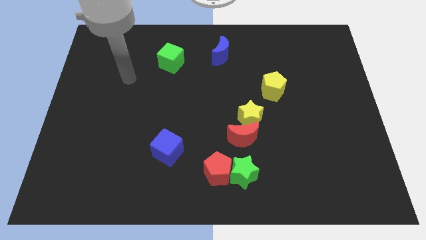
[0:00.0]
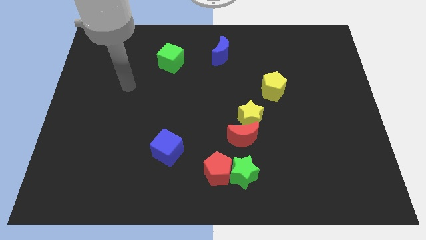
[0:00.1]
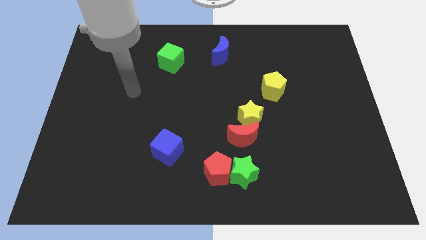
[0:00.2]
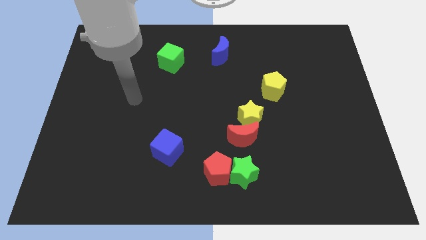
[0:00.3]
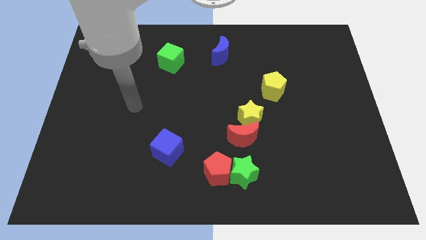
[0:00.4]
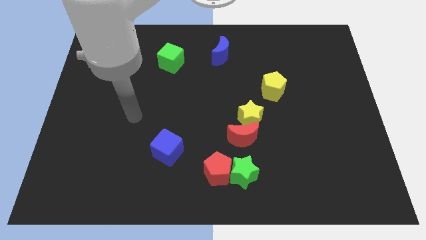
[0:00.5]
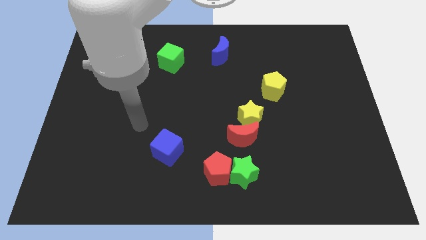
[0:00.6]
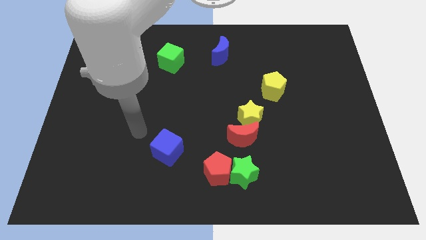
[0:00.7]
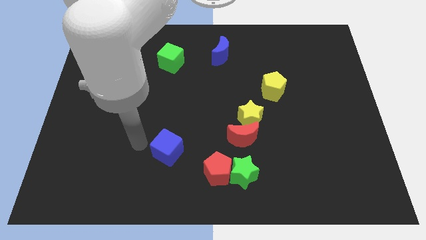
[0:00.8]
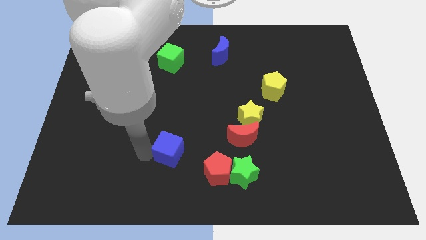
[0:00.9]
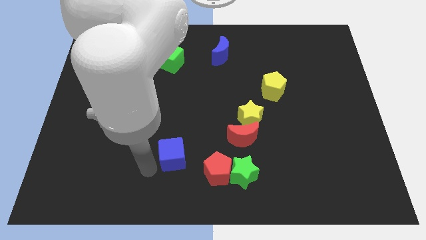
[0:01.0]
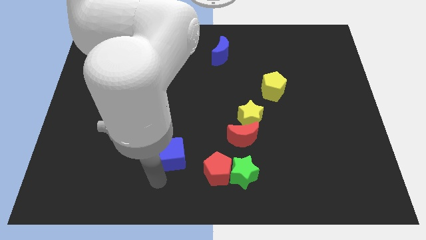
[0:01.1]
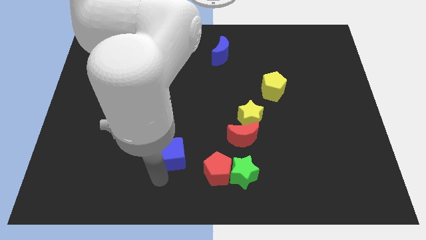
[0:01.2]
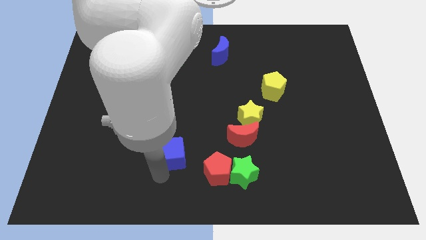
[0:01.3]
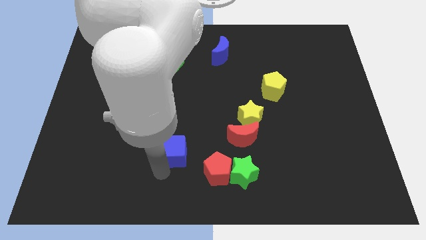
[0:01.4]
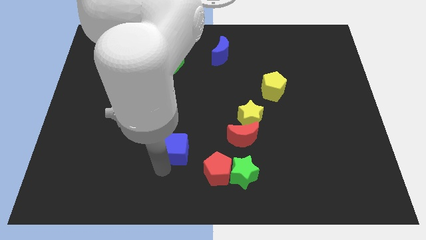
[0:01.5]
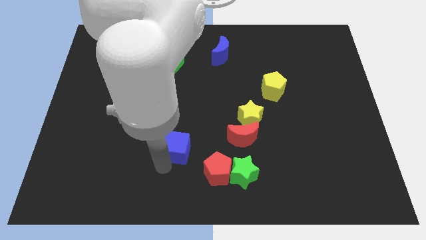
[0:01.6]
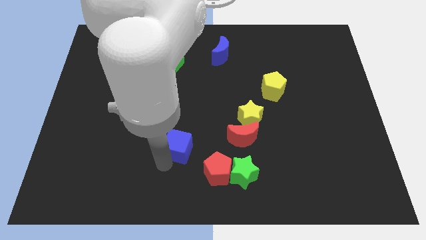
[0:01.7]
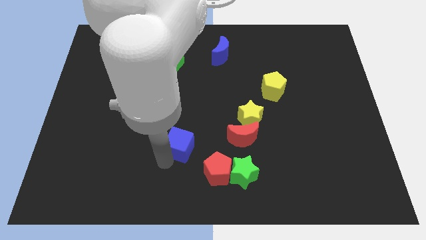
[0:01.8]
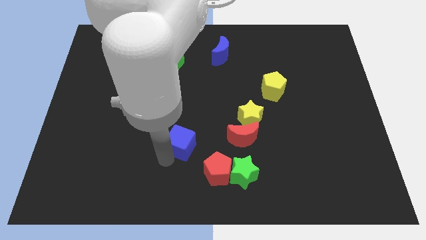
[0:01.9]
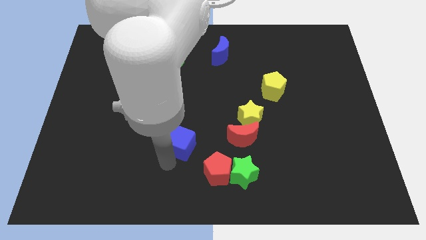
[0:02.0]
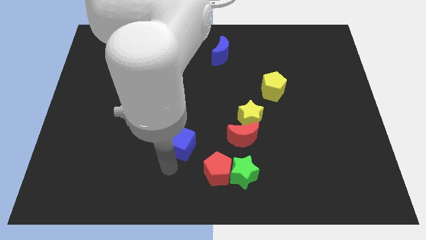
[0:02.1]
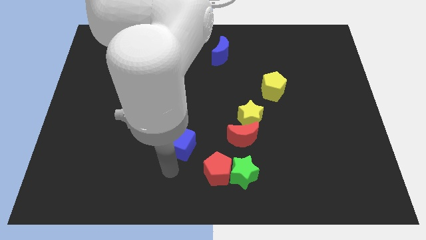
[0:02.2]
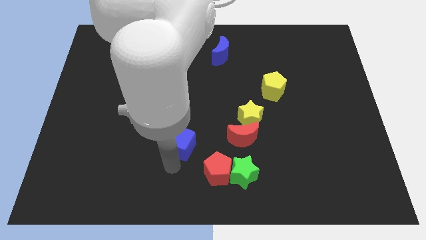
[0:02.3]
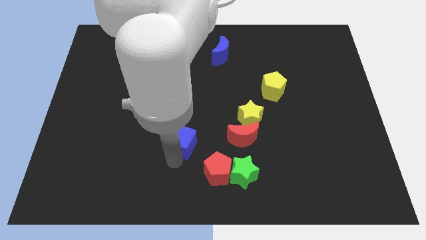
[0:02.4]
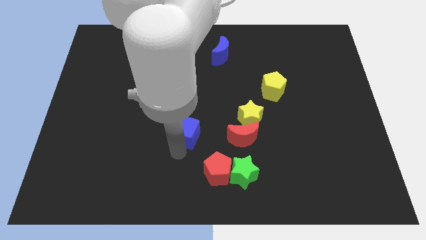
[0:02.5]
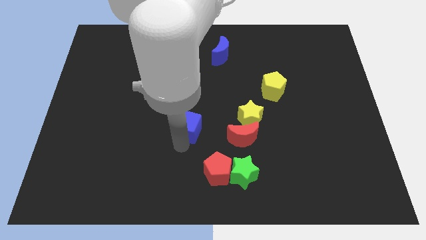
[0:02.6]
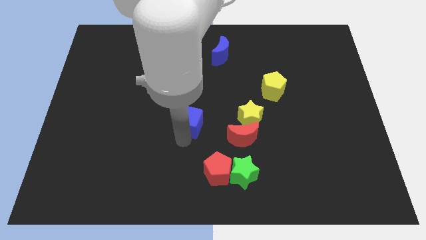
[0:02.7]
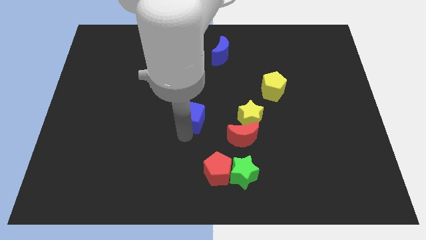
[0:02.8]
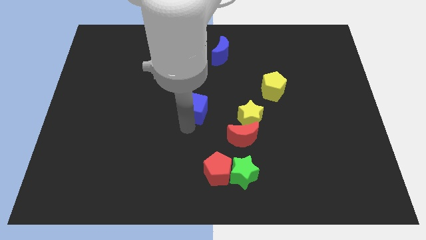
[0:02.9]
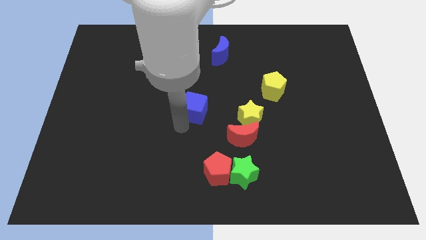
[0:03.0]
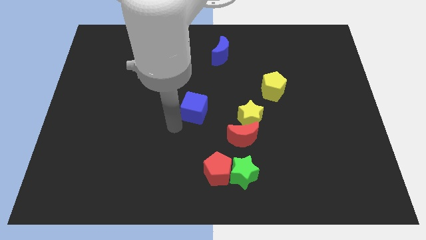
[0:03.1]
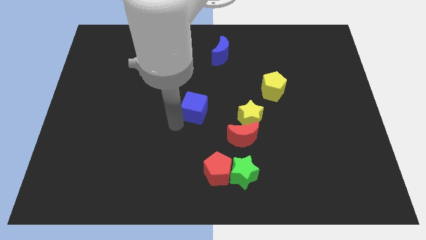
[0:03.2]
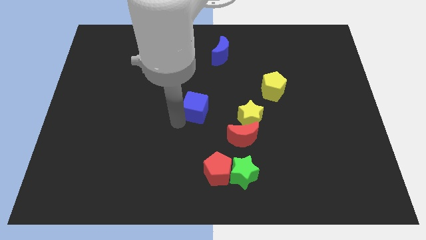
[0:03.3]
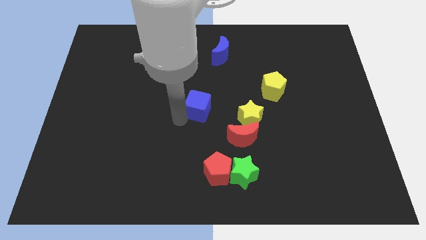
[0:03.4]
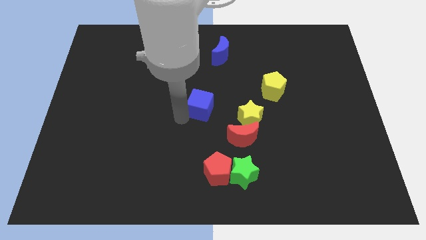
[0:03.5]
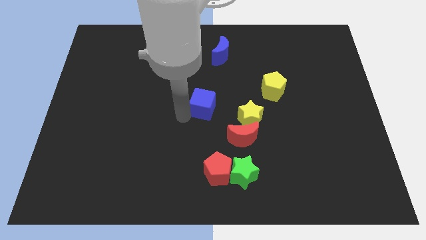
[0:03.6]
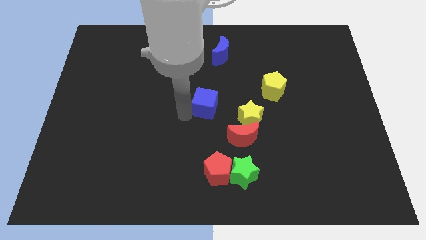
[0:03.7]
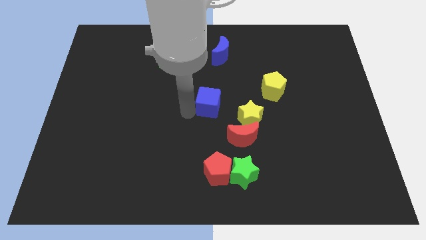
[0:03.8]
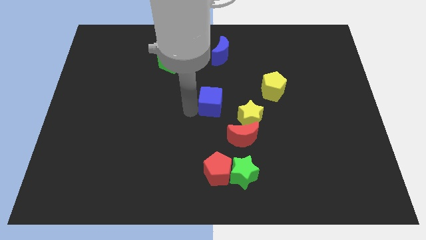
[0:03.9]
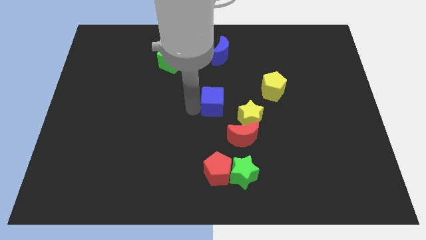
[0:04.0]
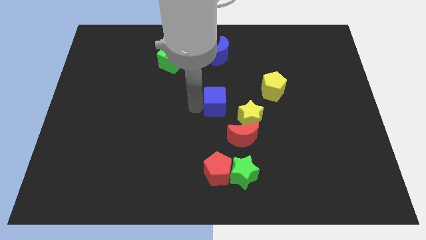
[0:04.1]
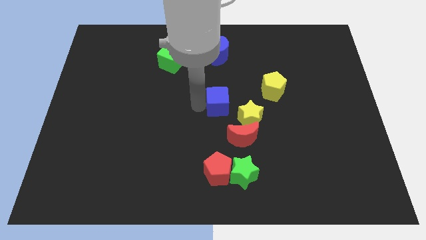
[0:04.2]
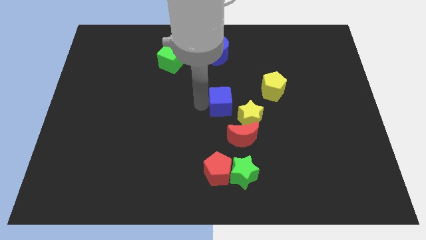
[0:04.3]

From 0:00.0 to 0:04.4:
put the blue cube to the left side of the yellow pentagon

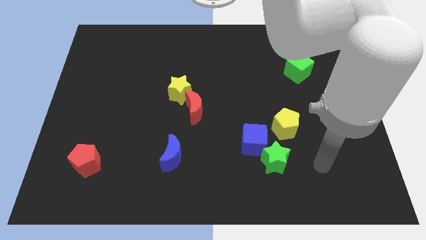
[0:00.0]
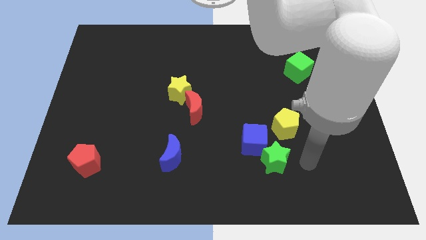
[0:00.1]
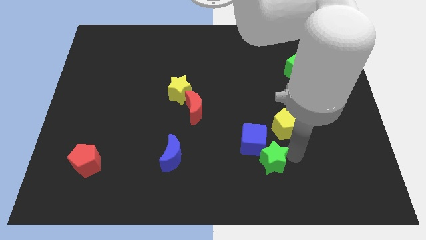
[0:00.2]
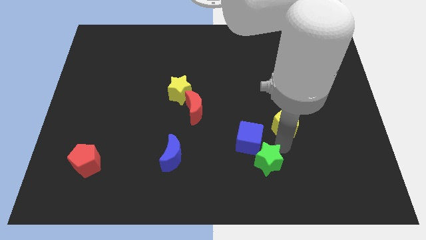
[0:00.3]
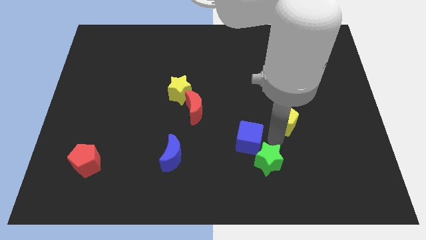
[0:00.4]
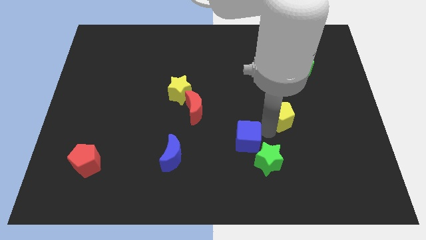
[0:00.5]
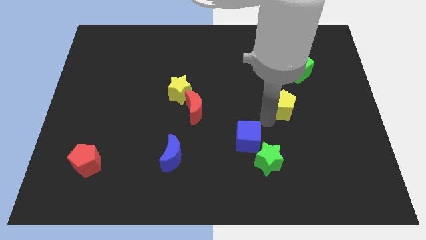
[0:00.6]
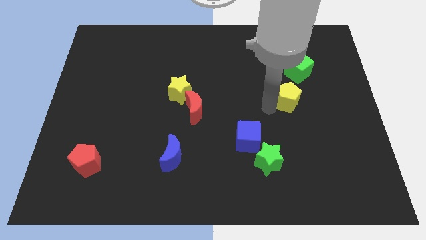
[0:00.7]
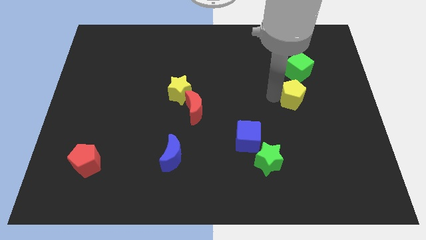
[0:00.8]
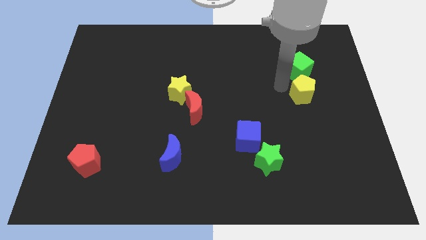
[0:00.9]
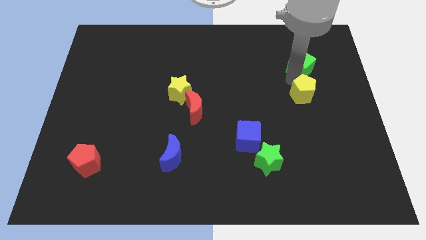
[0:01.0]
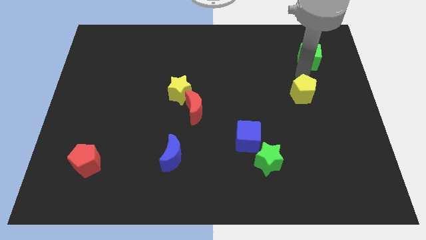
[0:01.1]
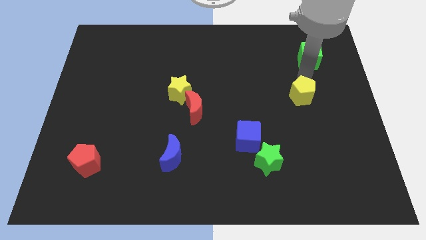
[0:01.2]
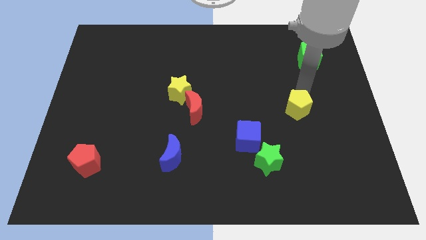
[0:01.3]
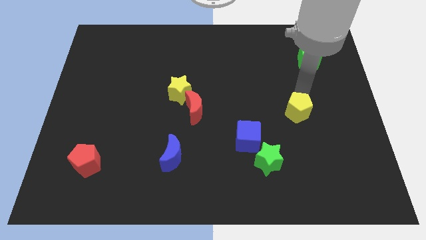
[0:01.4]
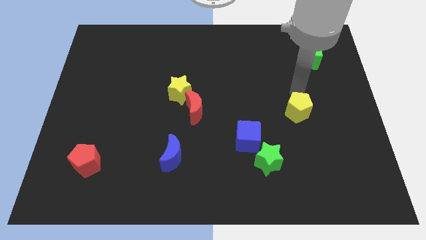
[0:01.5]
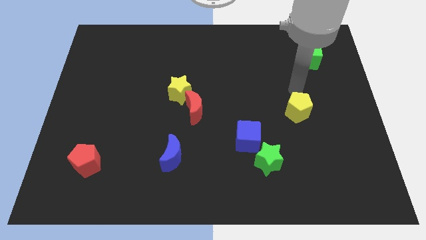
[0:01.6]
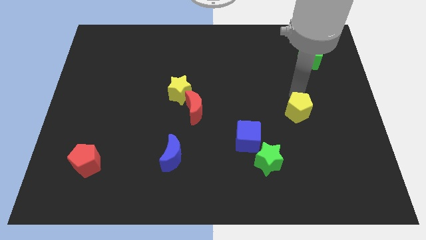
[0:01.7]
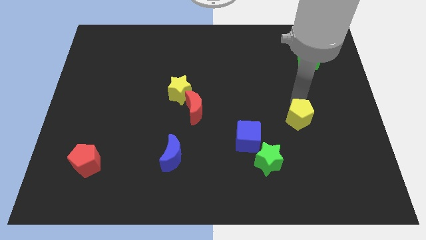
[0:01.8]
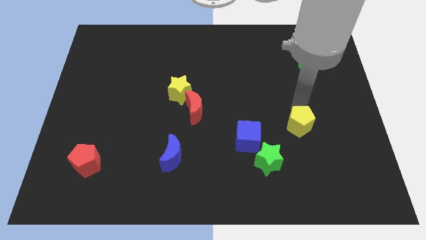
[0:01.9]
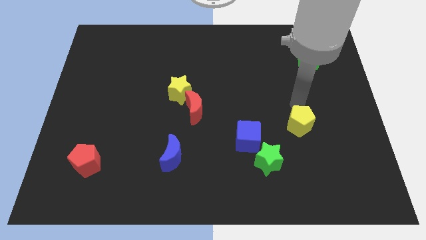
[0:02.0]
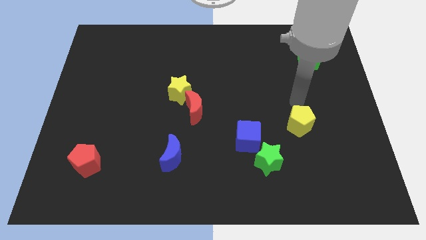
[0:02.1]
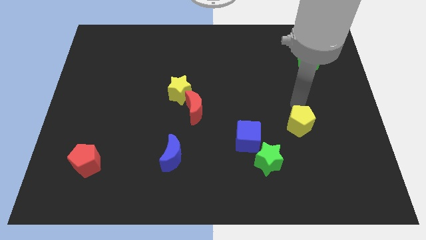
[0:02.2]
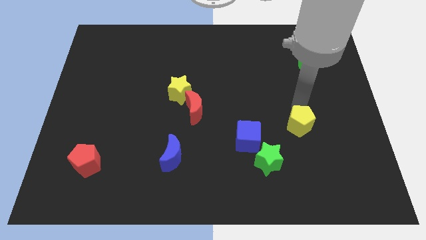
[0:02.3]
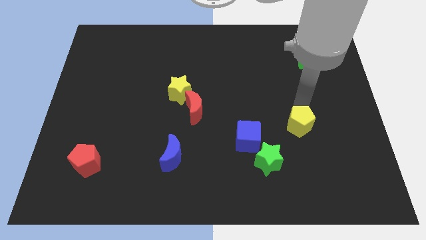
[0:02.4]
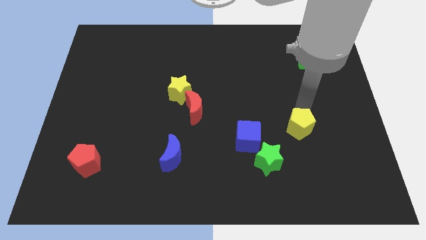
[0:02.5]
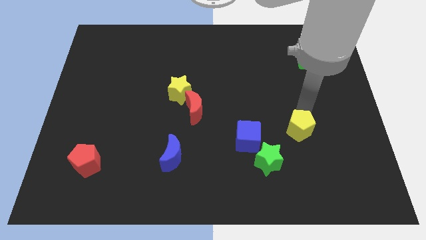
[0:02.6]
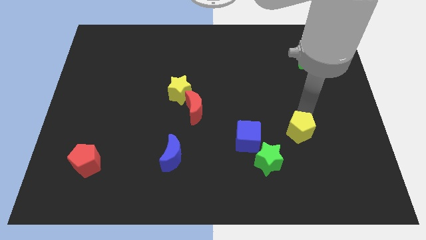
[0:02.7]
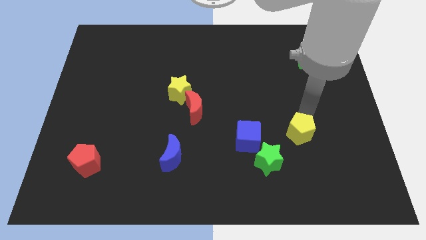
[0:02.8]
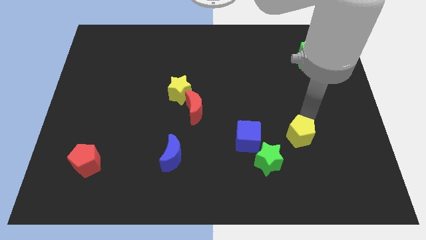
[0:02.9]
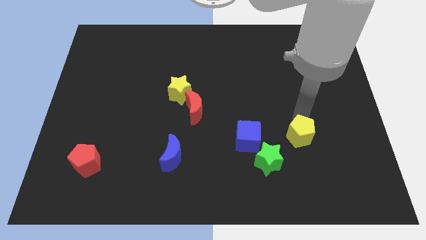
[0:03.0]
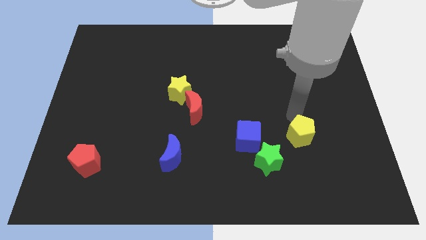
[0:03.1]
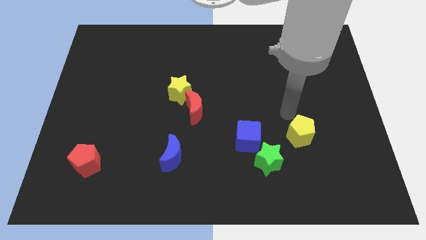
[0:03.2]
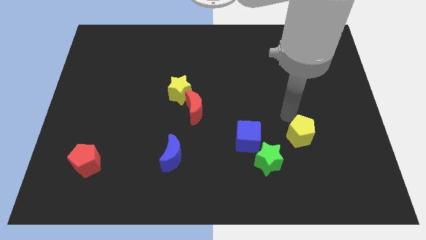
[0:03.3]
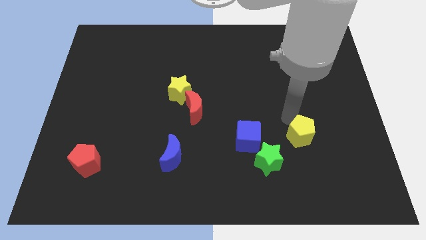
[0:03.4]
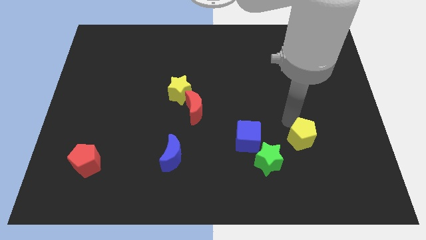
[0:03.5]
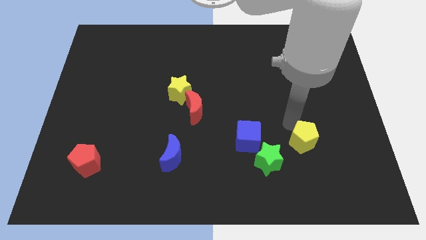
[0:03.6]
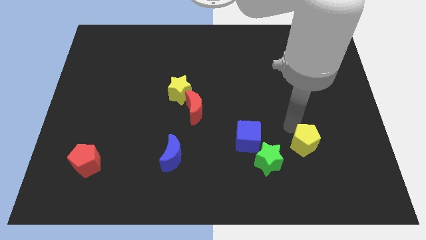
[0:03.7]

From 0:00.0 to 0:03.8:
put the yellow pentagon to the right side of the green star

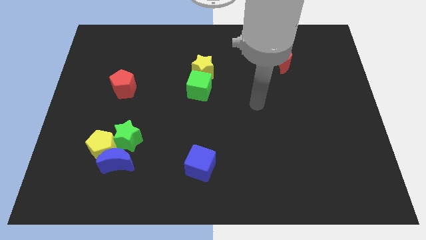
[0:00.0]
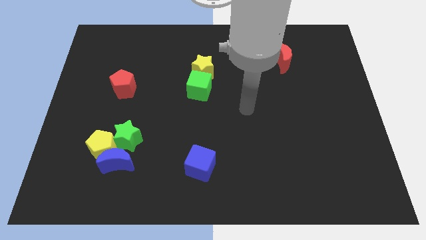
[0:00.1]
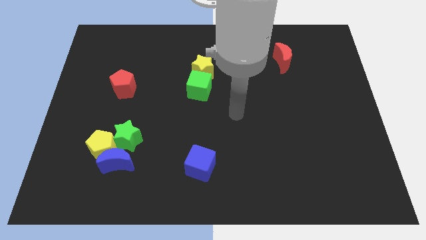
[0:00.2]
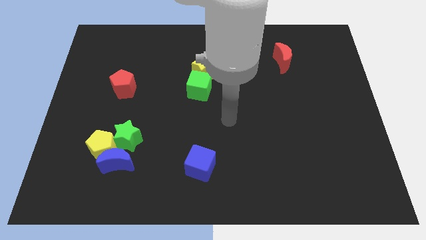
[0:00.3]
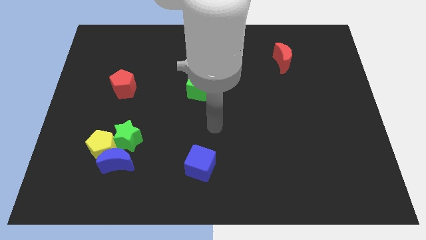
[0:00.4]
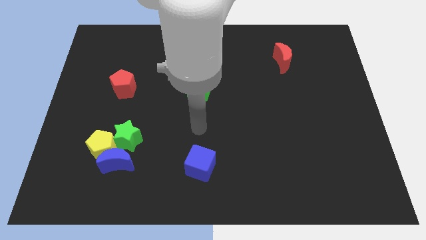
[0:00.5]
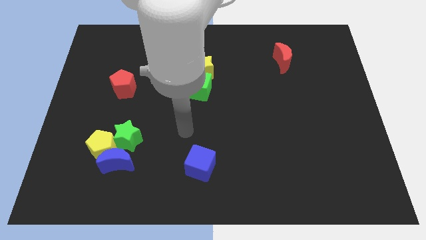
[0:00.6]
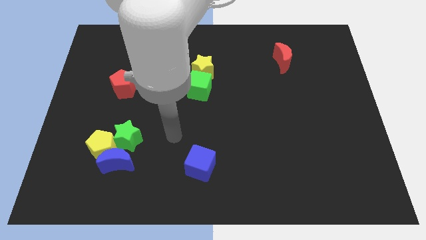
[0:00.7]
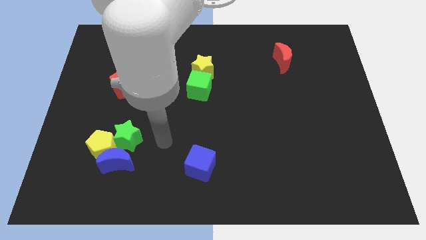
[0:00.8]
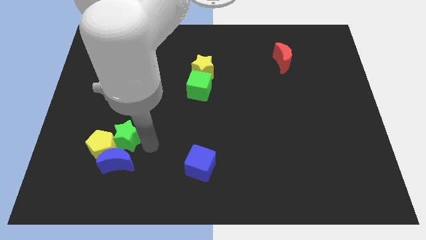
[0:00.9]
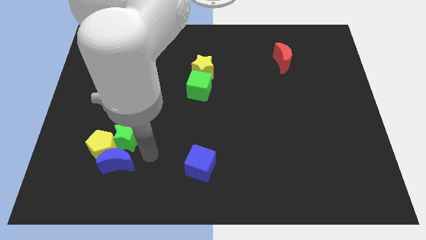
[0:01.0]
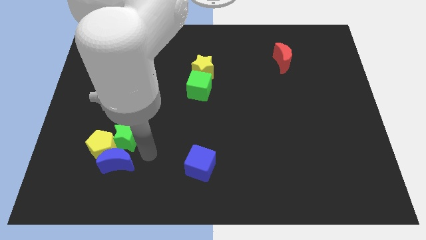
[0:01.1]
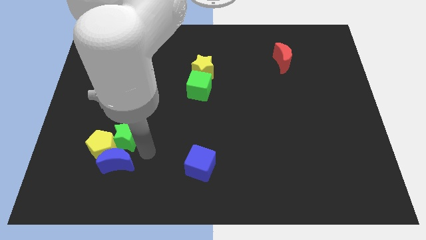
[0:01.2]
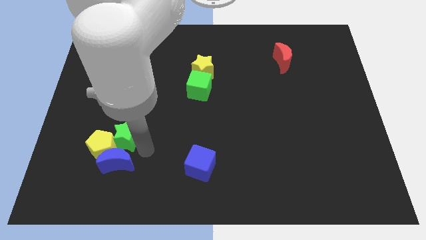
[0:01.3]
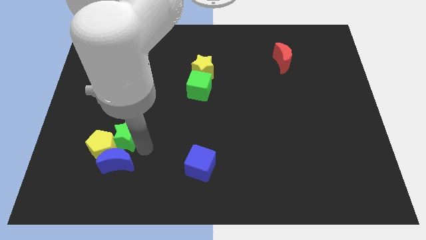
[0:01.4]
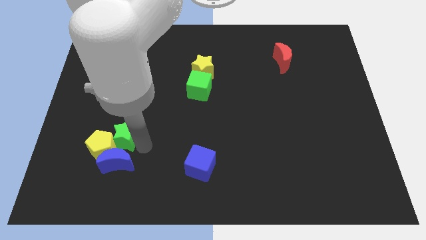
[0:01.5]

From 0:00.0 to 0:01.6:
push the green star to the top left side of the blue moon
